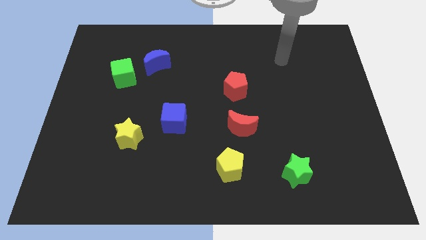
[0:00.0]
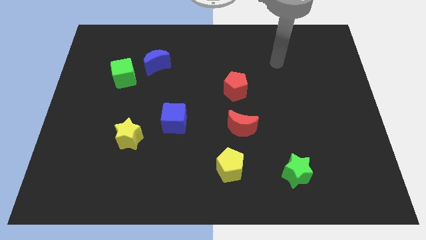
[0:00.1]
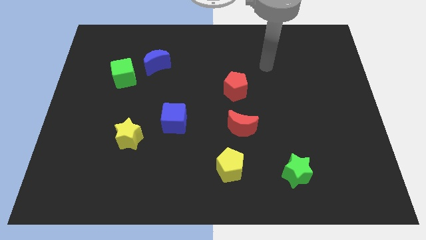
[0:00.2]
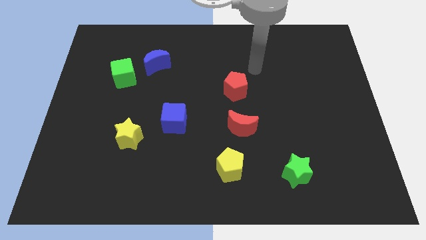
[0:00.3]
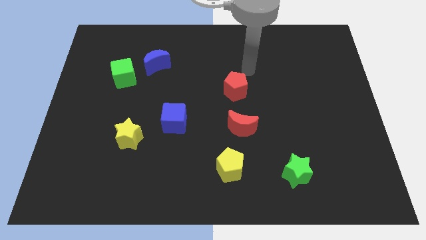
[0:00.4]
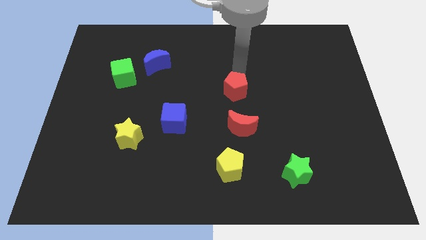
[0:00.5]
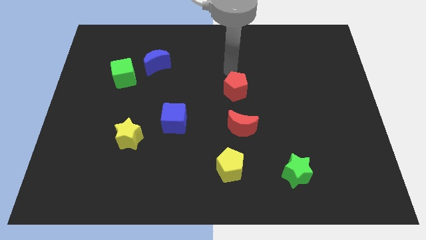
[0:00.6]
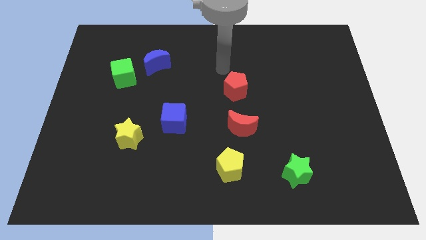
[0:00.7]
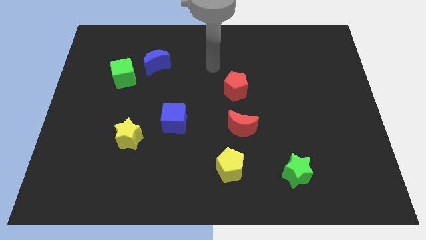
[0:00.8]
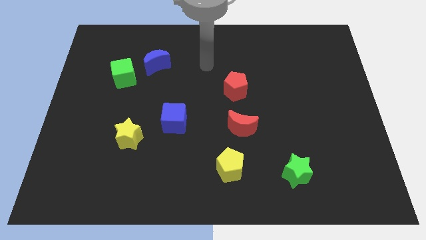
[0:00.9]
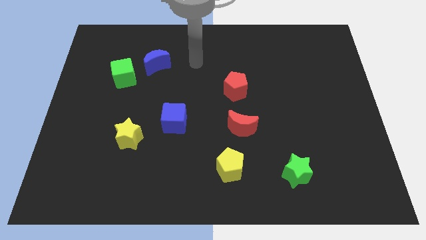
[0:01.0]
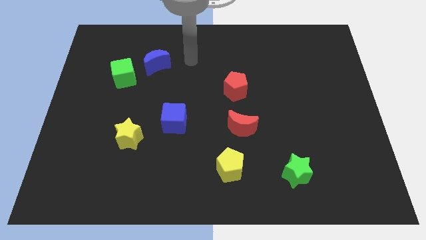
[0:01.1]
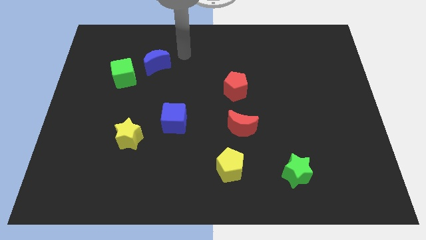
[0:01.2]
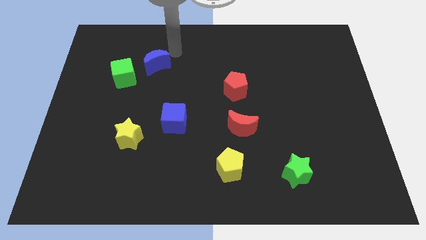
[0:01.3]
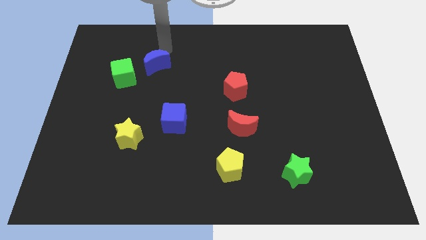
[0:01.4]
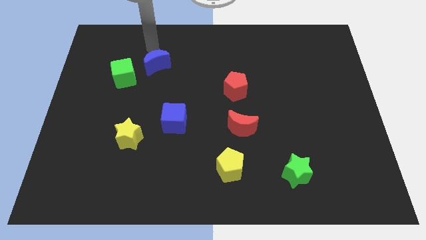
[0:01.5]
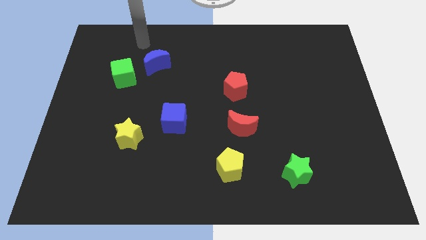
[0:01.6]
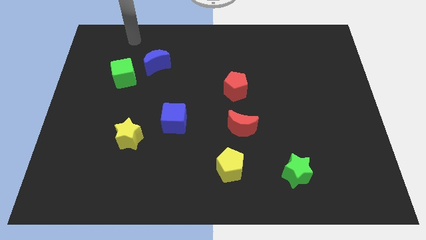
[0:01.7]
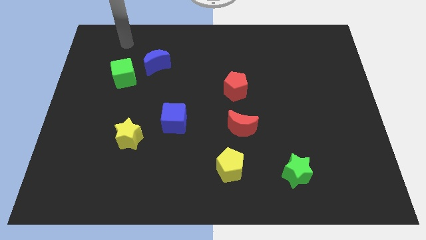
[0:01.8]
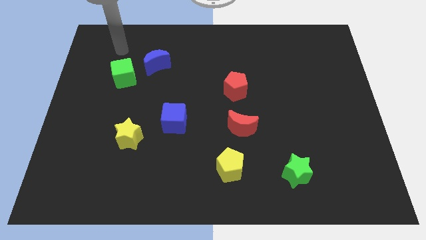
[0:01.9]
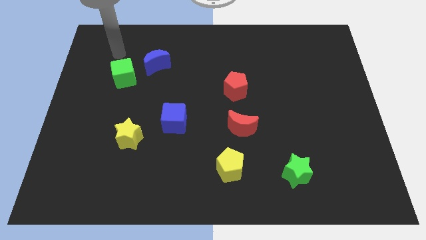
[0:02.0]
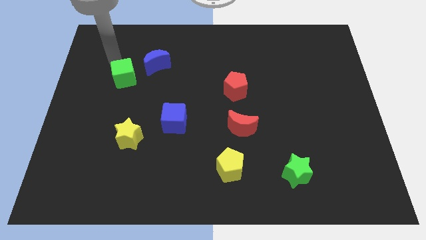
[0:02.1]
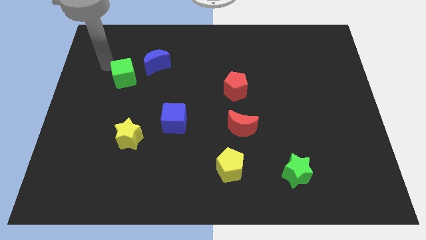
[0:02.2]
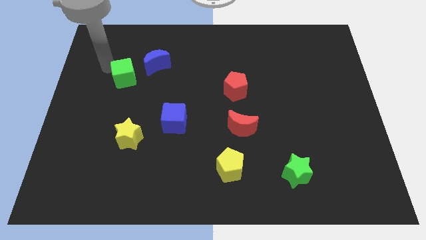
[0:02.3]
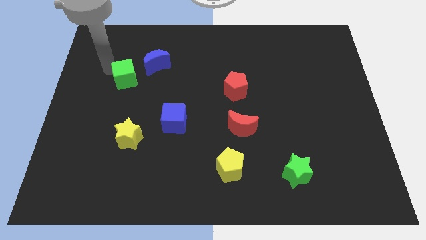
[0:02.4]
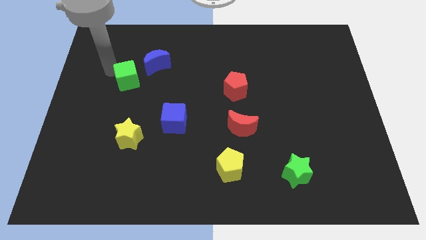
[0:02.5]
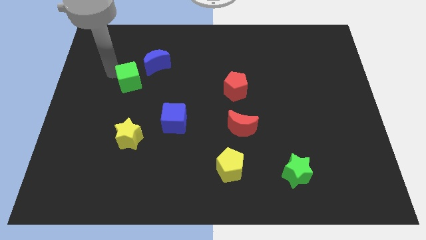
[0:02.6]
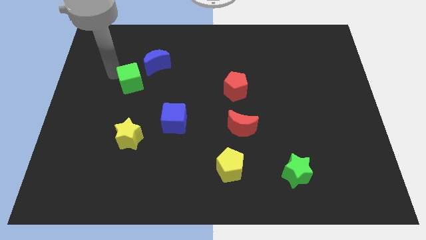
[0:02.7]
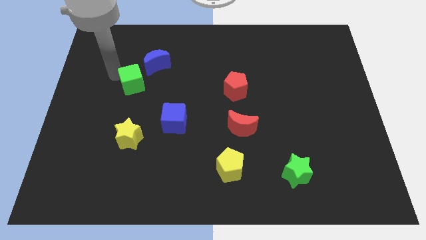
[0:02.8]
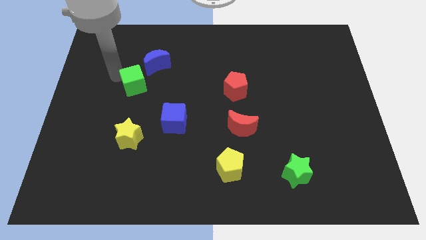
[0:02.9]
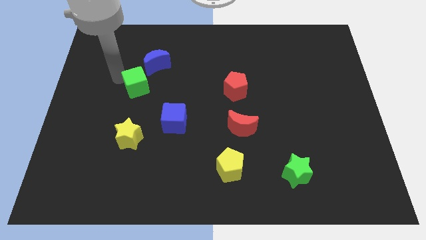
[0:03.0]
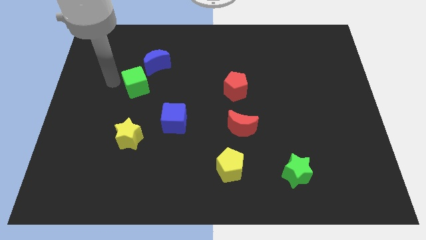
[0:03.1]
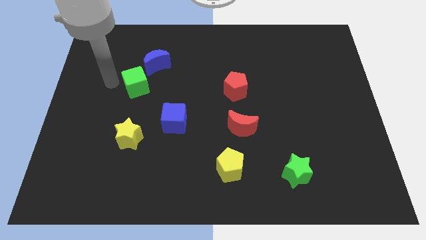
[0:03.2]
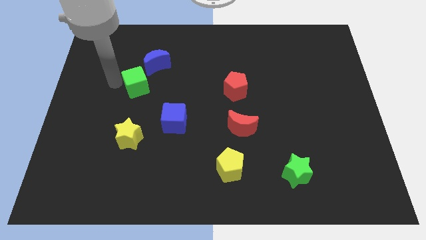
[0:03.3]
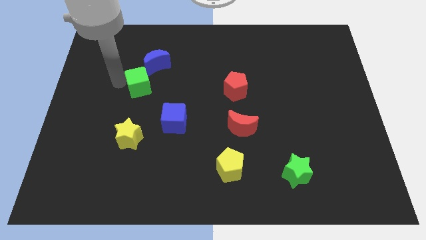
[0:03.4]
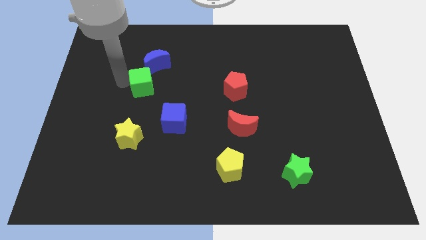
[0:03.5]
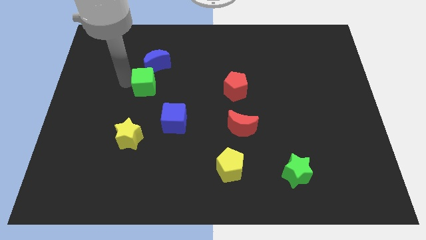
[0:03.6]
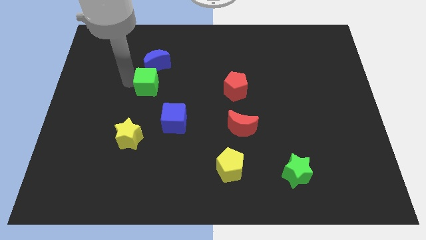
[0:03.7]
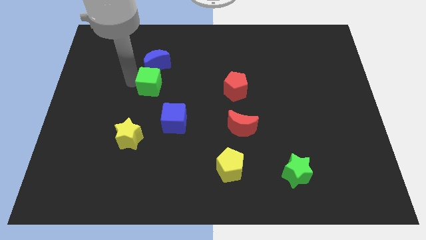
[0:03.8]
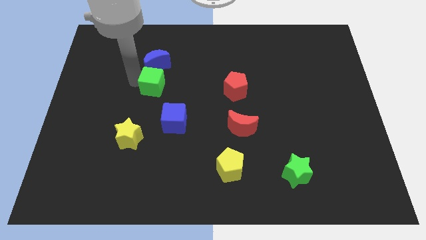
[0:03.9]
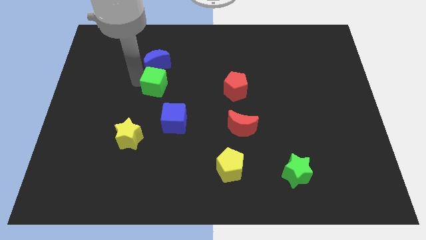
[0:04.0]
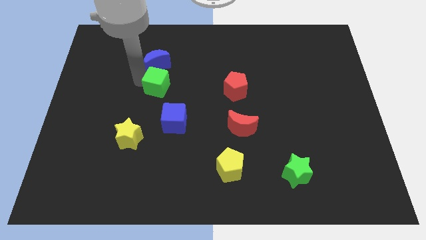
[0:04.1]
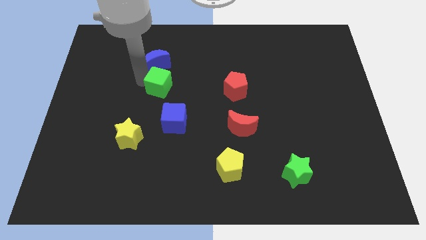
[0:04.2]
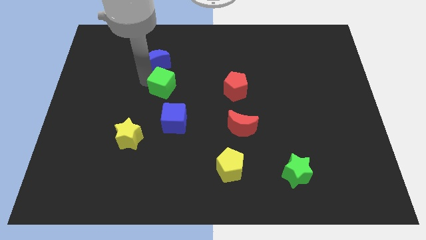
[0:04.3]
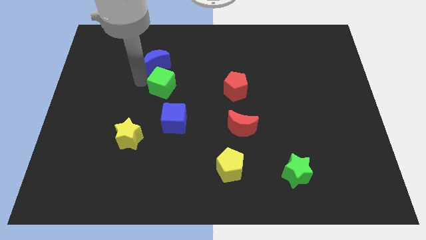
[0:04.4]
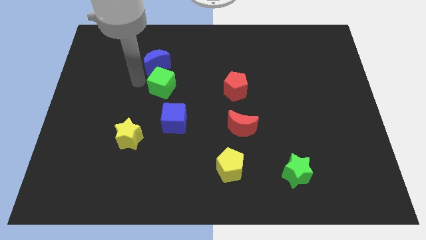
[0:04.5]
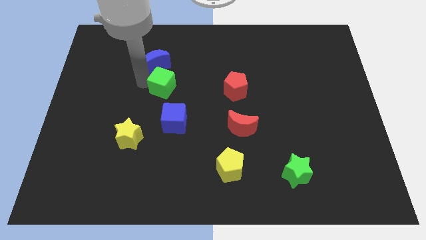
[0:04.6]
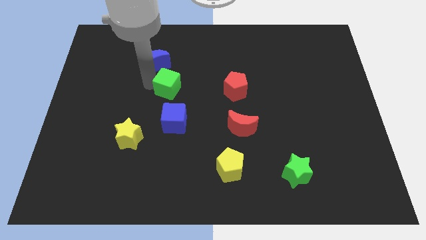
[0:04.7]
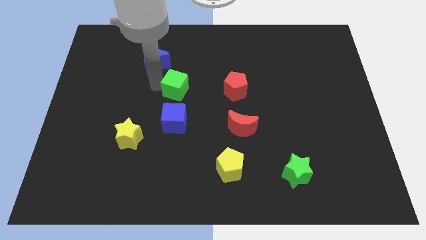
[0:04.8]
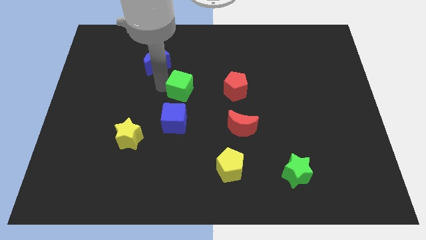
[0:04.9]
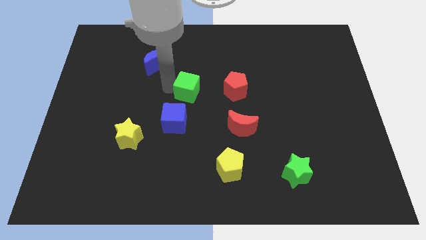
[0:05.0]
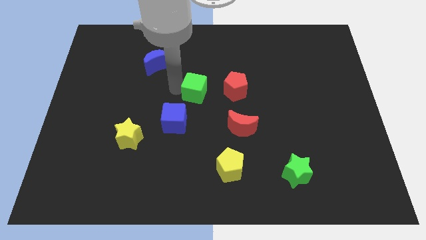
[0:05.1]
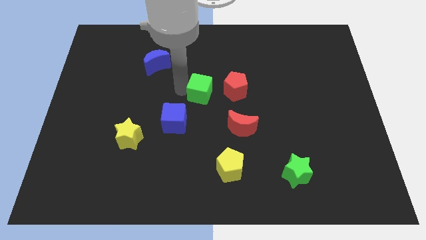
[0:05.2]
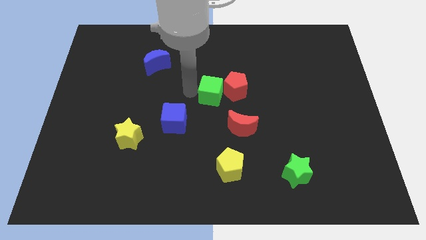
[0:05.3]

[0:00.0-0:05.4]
push the green cube towards the red pentagon
